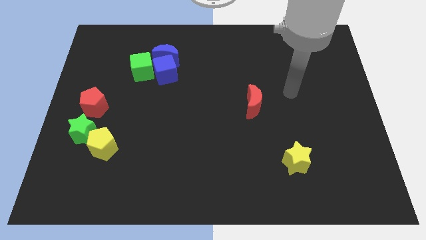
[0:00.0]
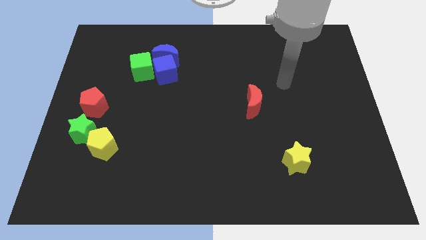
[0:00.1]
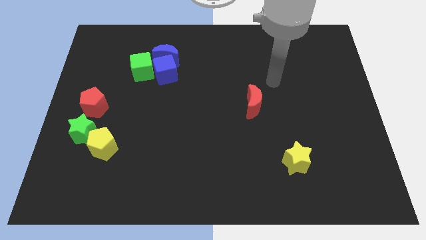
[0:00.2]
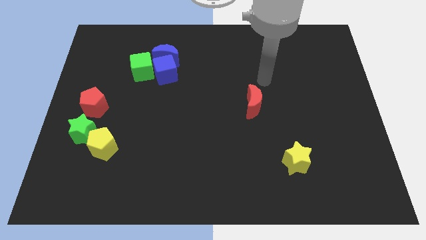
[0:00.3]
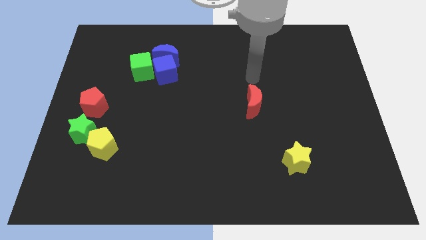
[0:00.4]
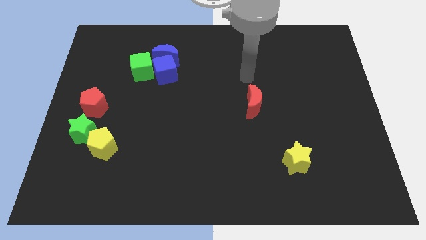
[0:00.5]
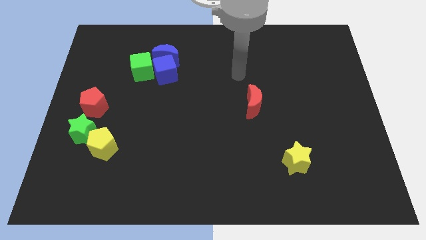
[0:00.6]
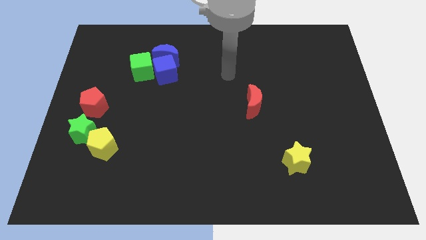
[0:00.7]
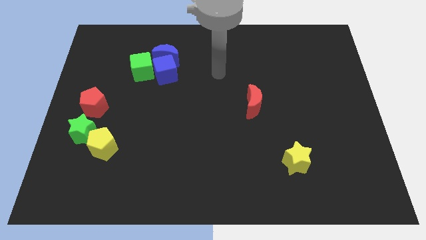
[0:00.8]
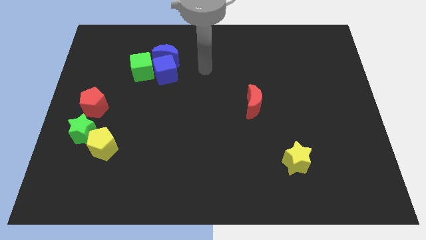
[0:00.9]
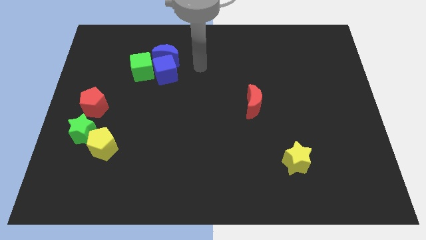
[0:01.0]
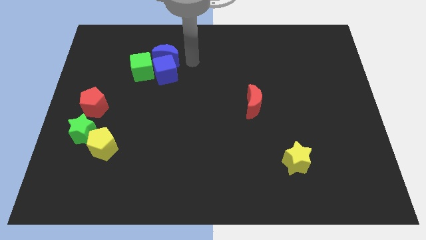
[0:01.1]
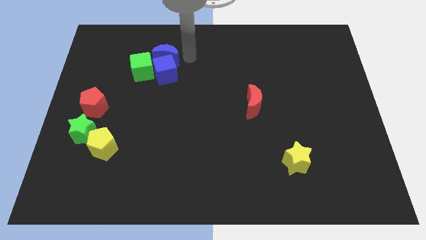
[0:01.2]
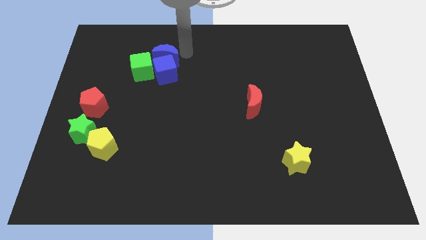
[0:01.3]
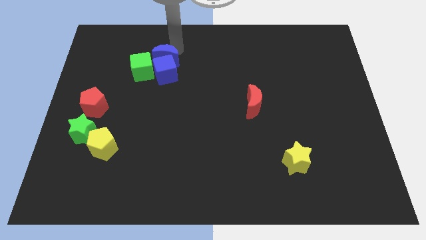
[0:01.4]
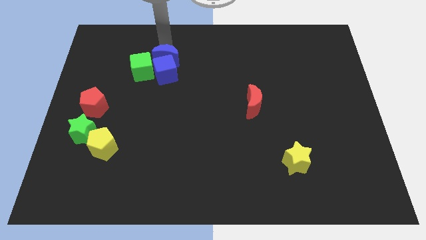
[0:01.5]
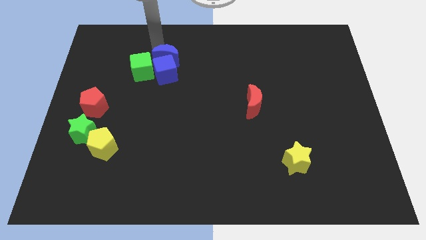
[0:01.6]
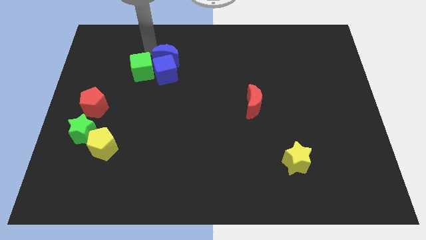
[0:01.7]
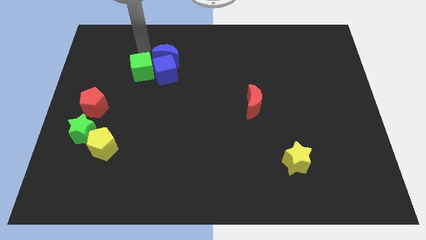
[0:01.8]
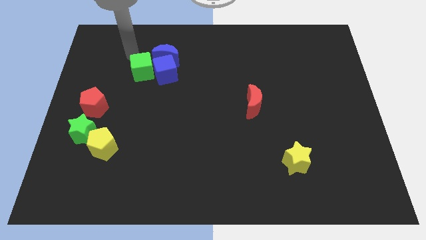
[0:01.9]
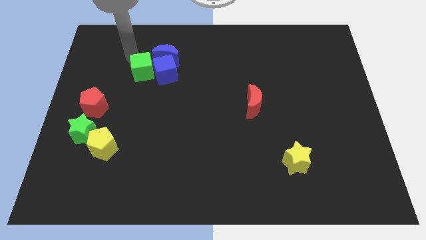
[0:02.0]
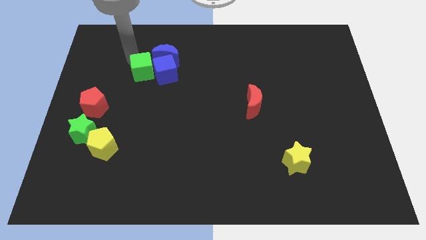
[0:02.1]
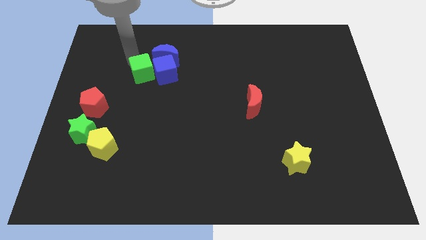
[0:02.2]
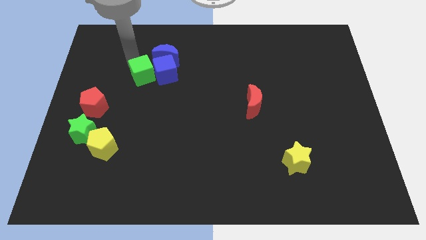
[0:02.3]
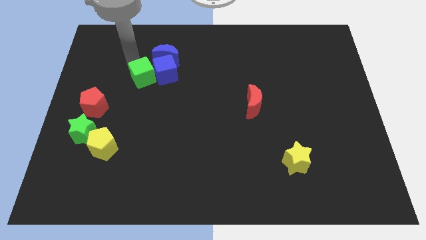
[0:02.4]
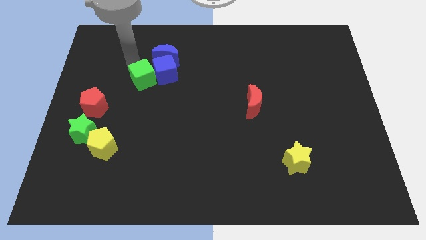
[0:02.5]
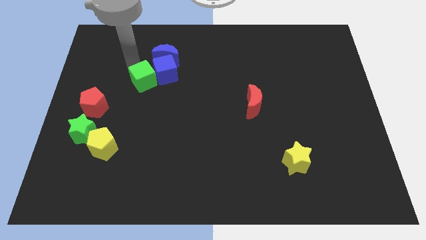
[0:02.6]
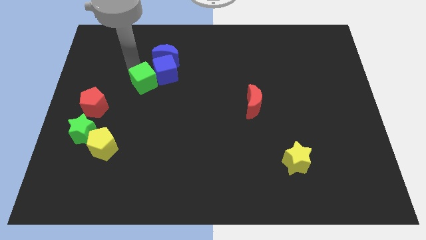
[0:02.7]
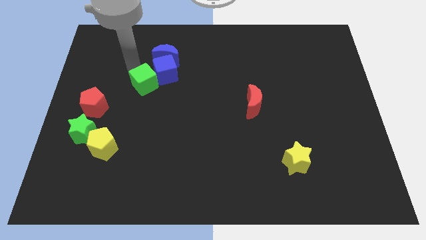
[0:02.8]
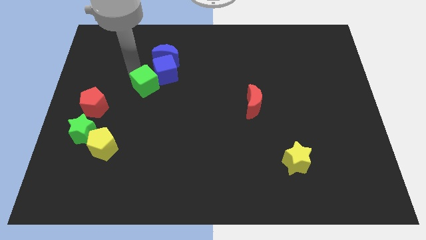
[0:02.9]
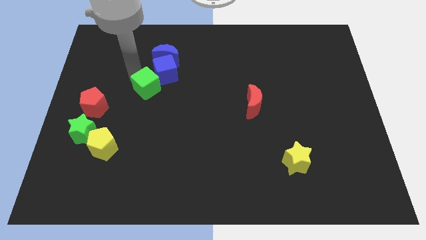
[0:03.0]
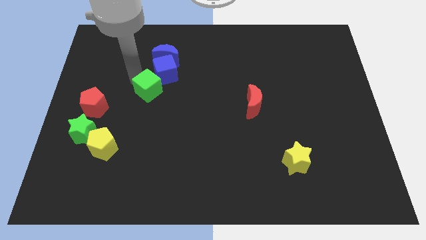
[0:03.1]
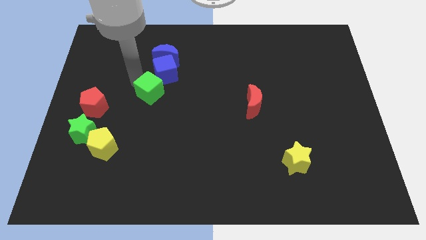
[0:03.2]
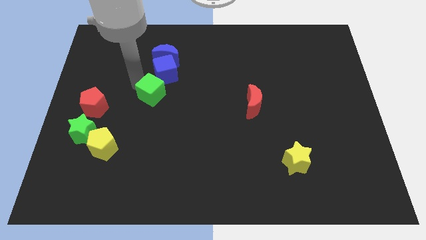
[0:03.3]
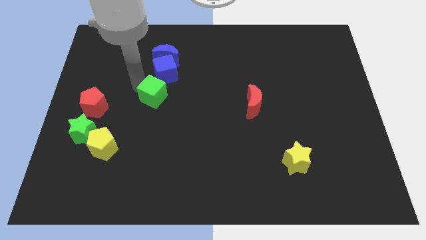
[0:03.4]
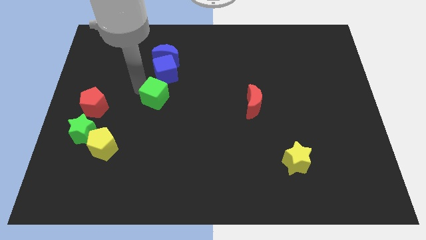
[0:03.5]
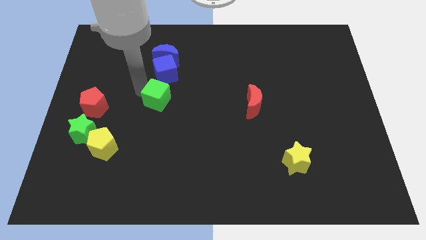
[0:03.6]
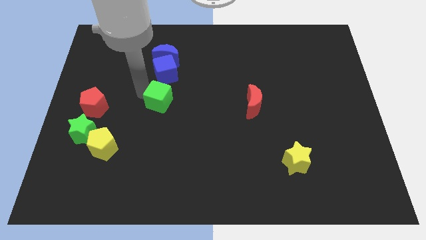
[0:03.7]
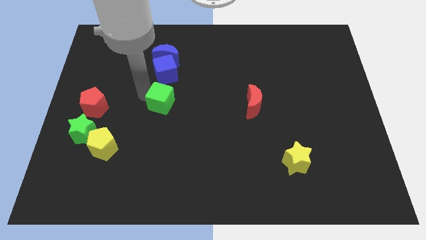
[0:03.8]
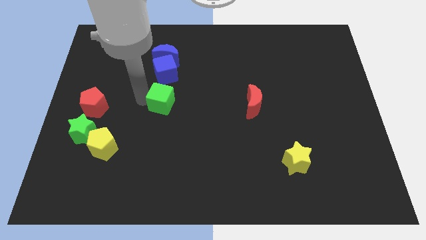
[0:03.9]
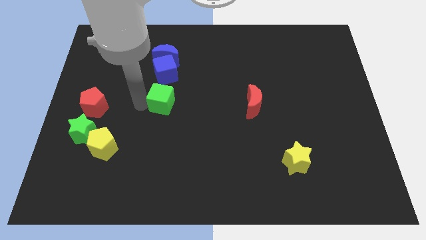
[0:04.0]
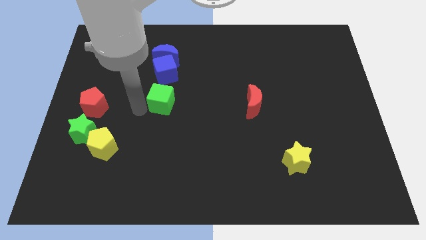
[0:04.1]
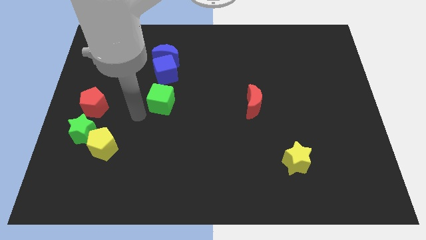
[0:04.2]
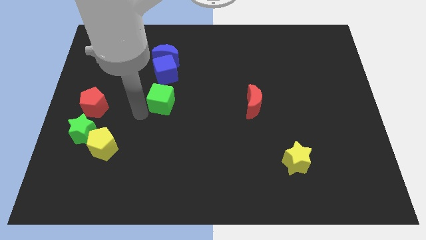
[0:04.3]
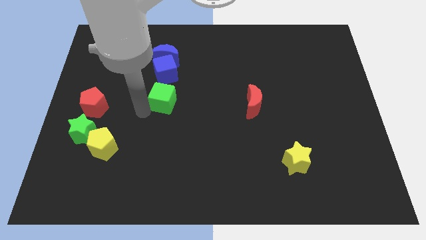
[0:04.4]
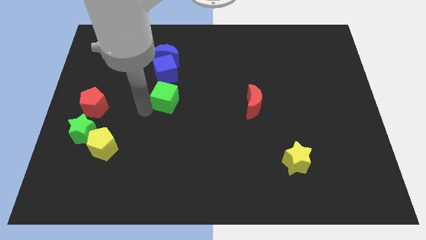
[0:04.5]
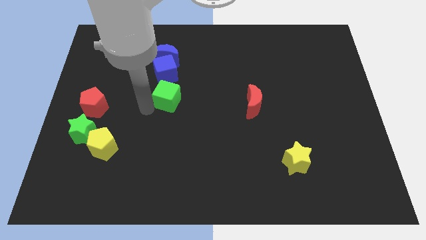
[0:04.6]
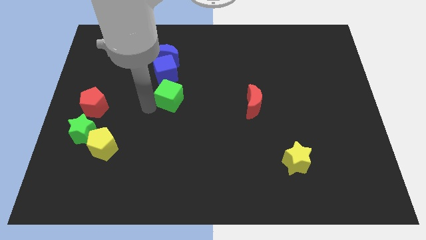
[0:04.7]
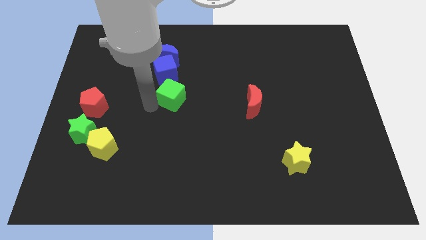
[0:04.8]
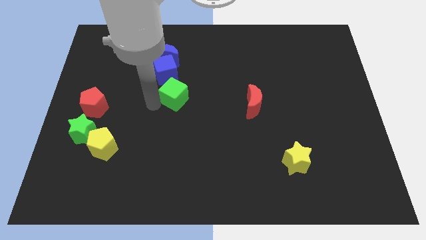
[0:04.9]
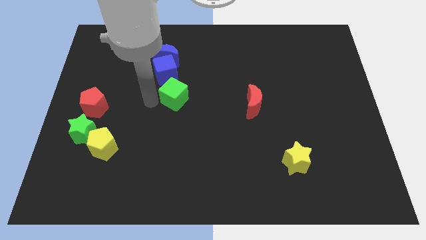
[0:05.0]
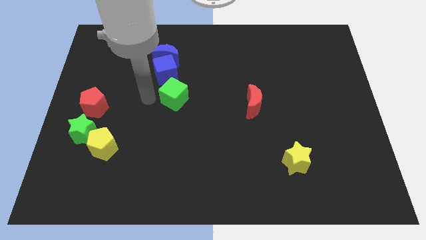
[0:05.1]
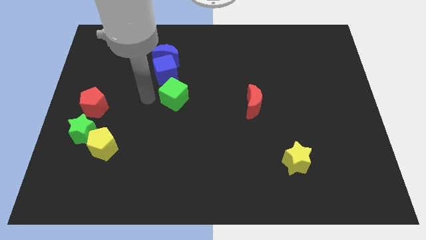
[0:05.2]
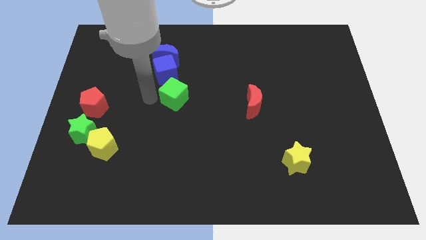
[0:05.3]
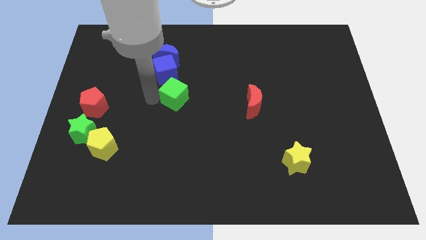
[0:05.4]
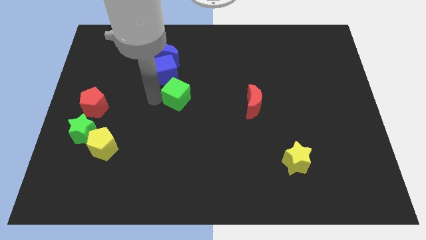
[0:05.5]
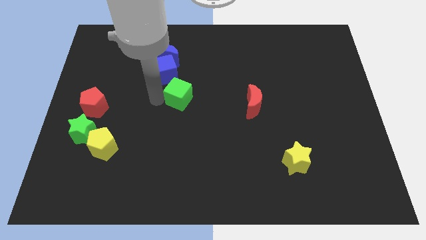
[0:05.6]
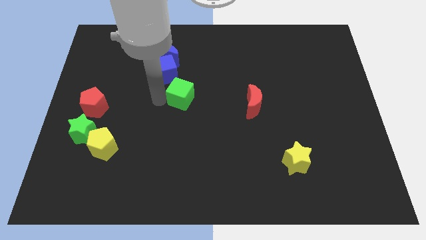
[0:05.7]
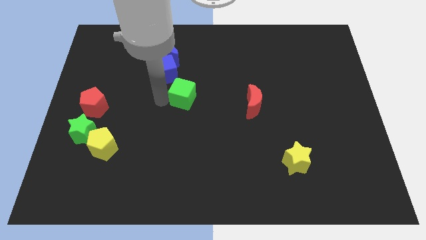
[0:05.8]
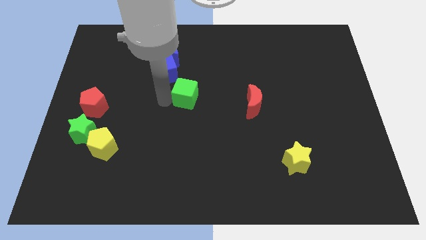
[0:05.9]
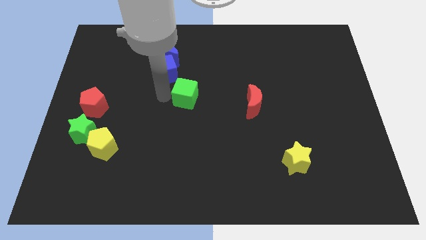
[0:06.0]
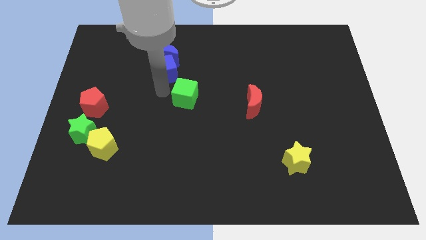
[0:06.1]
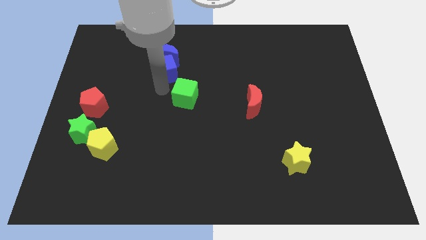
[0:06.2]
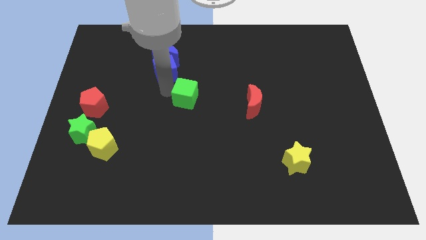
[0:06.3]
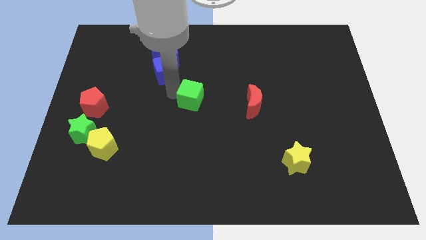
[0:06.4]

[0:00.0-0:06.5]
slide the green cube to the left of the red moon

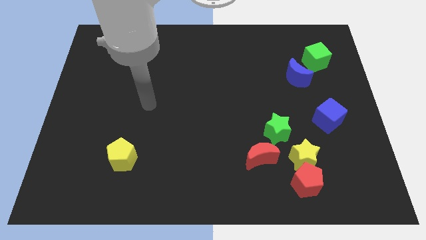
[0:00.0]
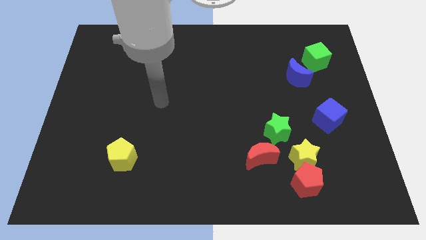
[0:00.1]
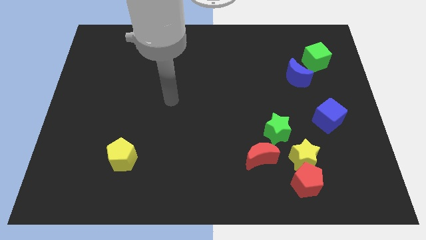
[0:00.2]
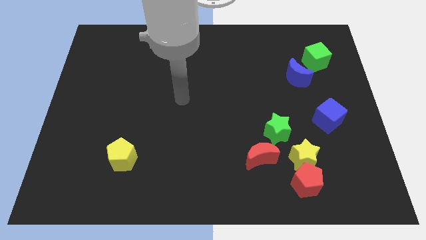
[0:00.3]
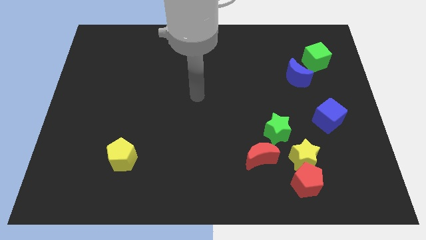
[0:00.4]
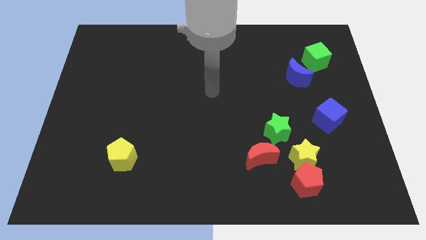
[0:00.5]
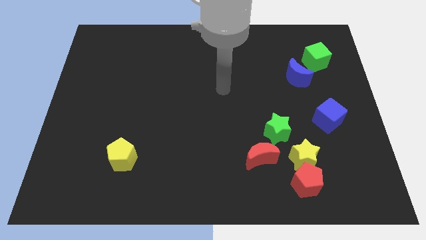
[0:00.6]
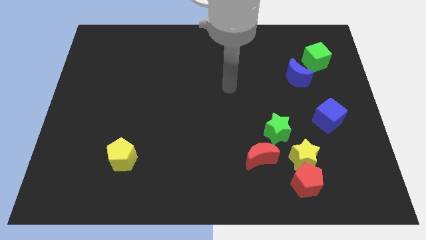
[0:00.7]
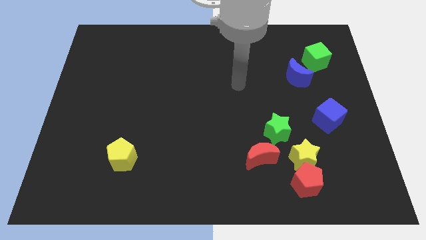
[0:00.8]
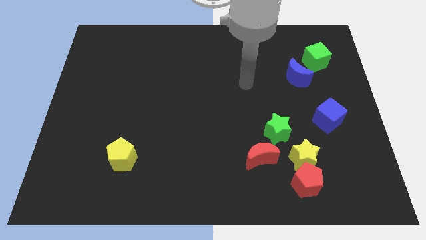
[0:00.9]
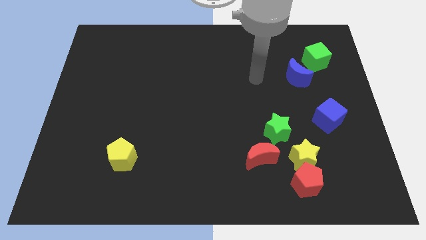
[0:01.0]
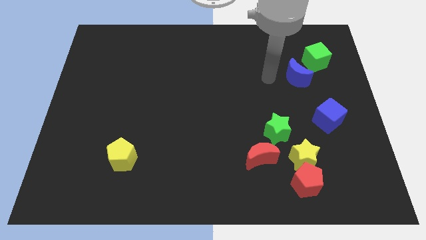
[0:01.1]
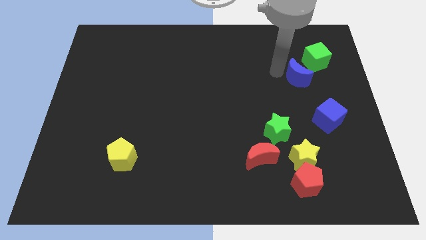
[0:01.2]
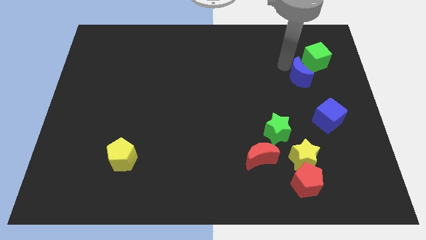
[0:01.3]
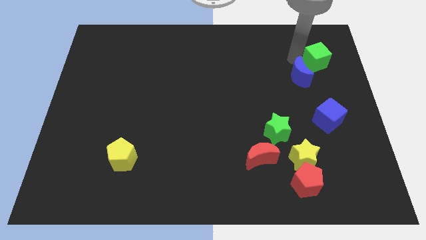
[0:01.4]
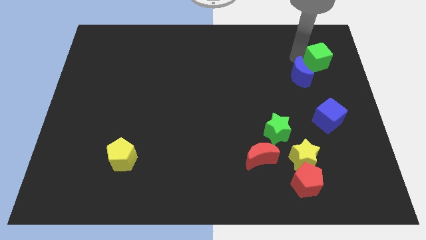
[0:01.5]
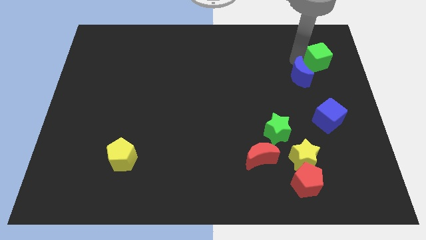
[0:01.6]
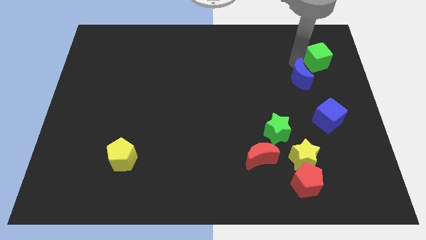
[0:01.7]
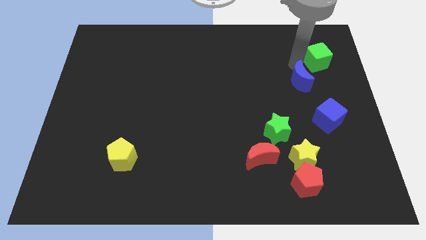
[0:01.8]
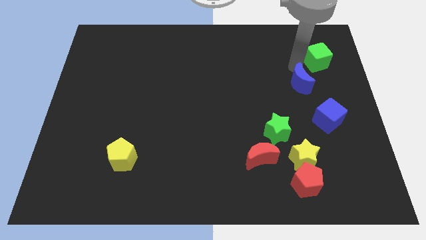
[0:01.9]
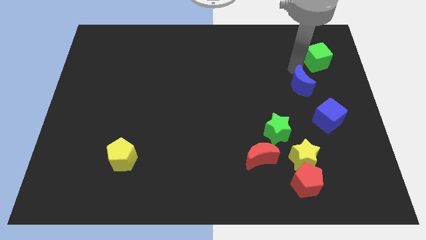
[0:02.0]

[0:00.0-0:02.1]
move the blue moon to the top left of the blue cube
